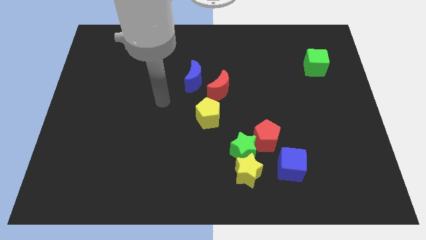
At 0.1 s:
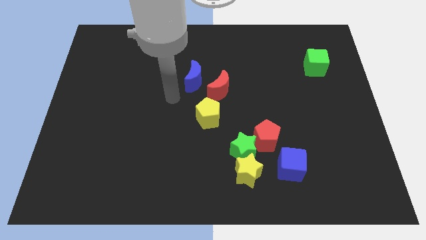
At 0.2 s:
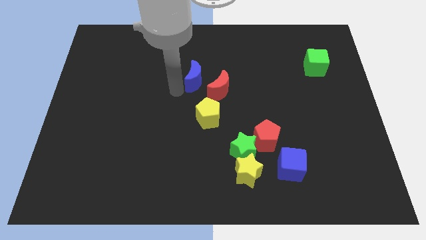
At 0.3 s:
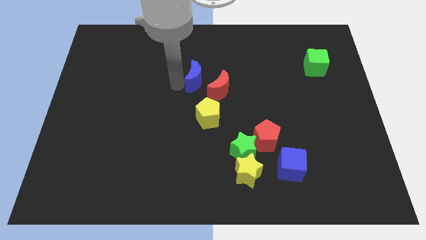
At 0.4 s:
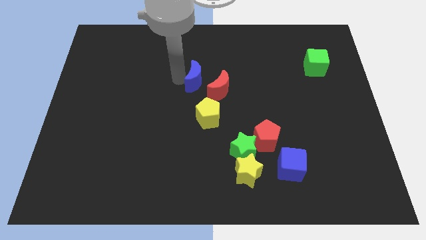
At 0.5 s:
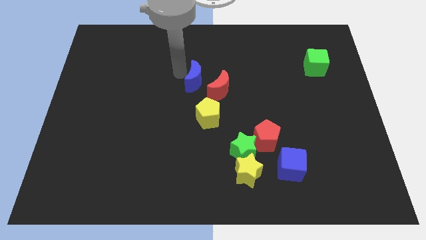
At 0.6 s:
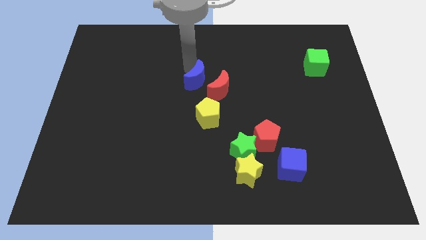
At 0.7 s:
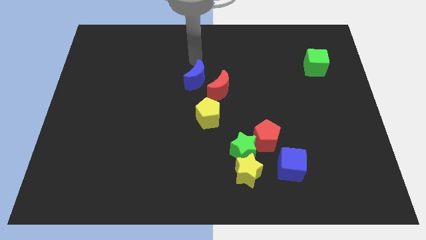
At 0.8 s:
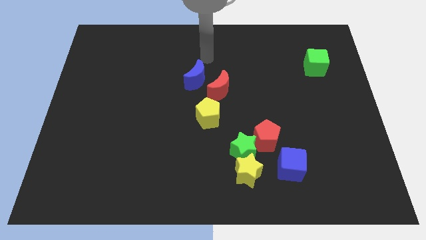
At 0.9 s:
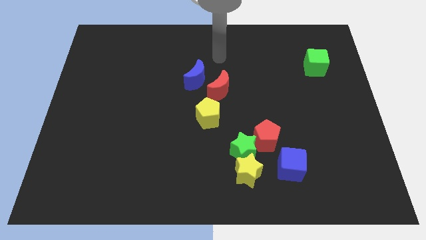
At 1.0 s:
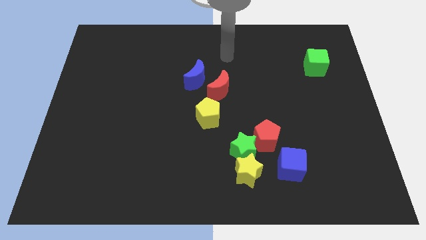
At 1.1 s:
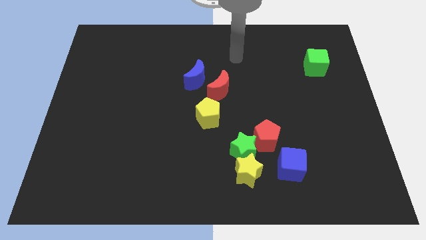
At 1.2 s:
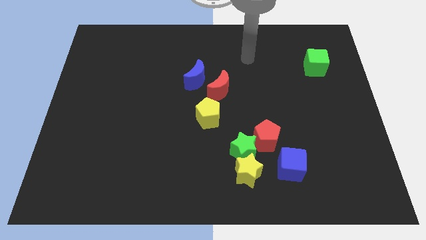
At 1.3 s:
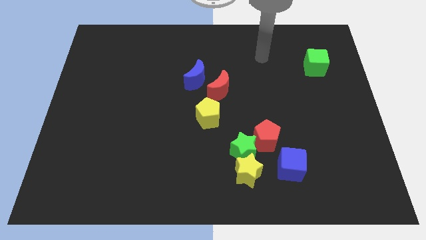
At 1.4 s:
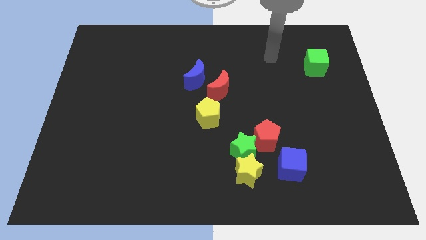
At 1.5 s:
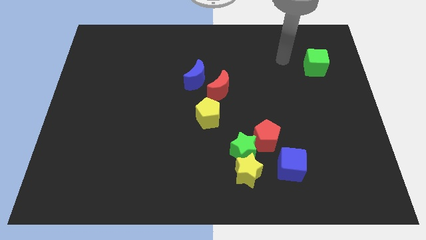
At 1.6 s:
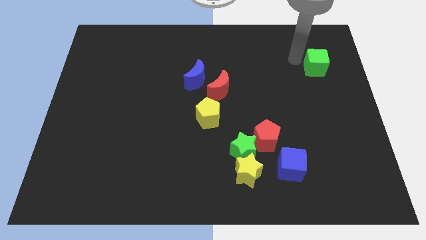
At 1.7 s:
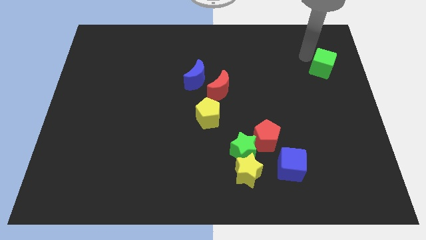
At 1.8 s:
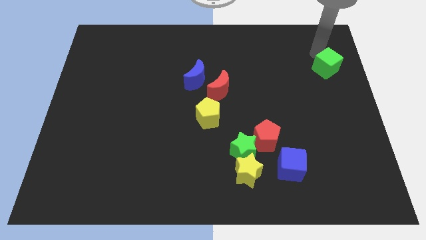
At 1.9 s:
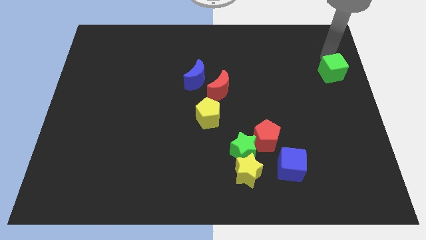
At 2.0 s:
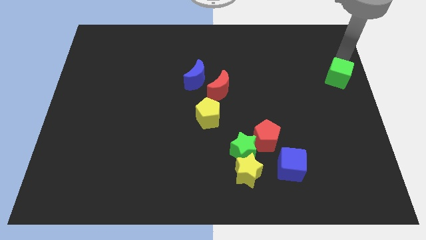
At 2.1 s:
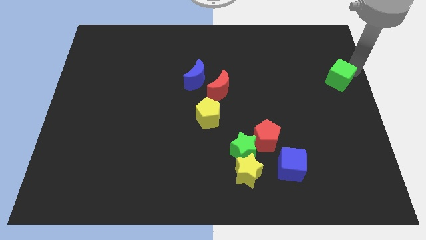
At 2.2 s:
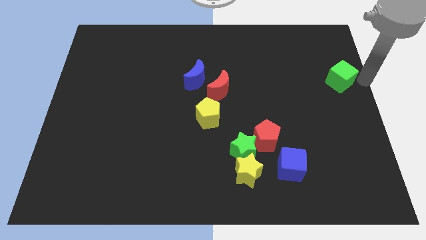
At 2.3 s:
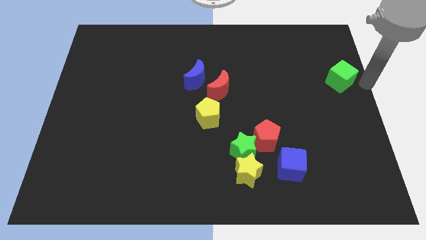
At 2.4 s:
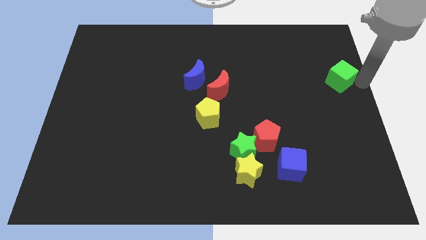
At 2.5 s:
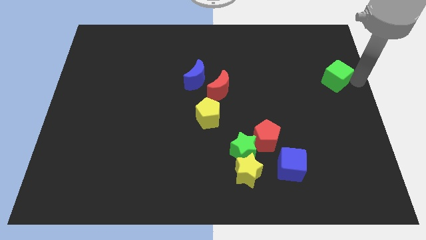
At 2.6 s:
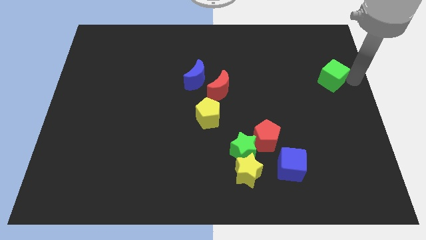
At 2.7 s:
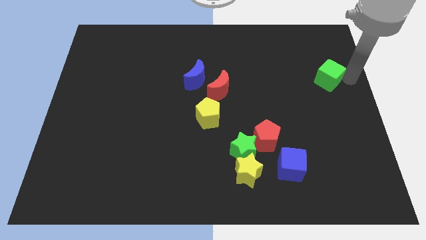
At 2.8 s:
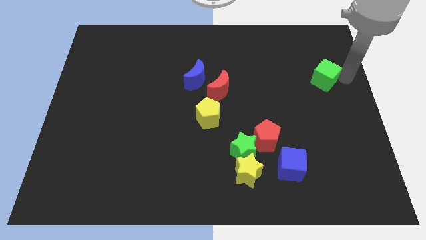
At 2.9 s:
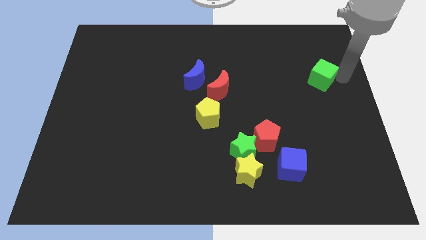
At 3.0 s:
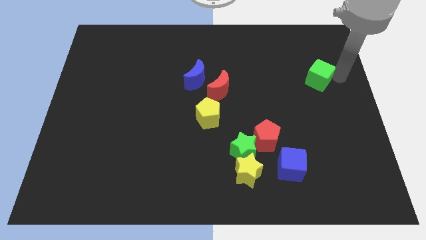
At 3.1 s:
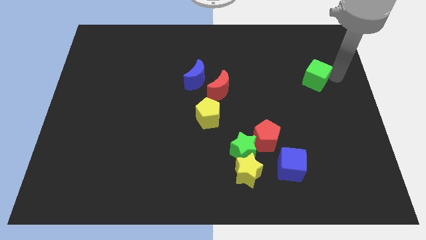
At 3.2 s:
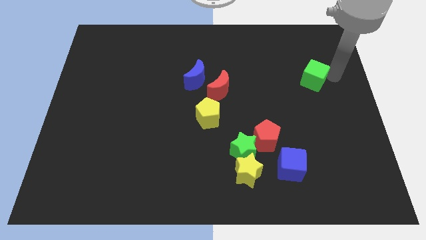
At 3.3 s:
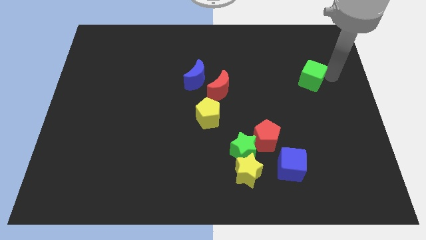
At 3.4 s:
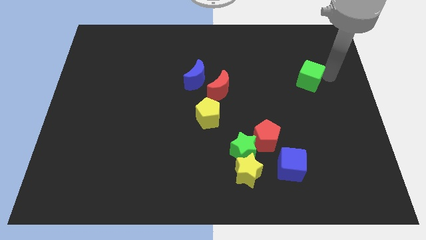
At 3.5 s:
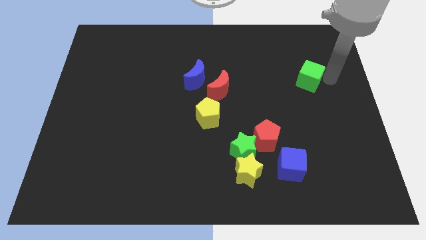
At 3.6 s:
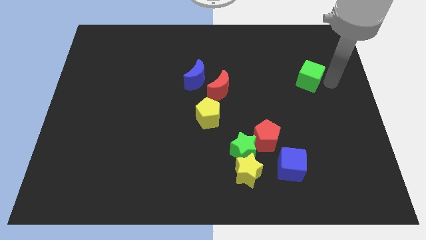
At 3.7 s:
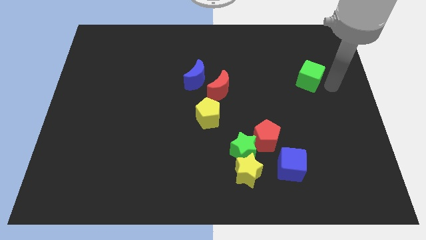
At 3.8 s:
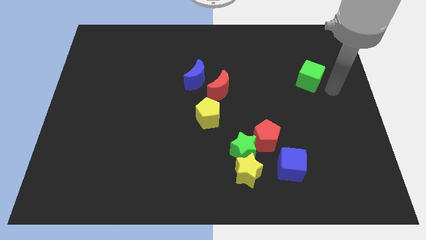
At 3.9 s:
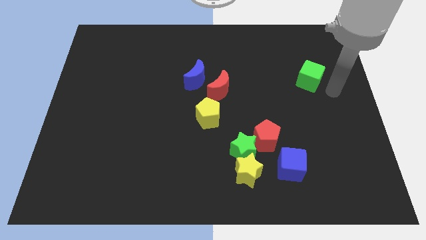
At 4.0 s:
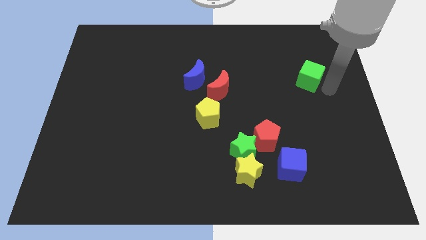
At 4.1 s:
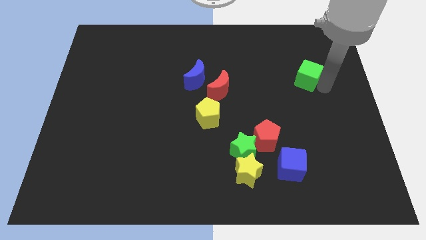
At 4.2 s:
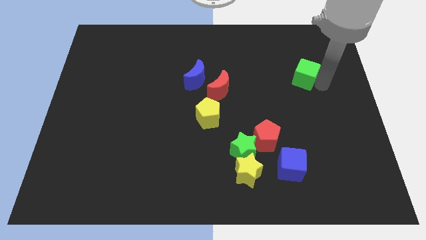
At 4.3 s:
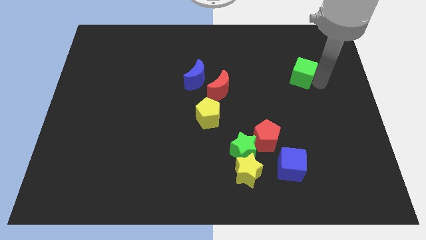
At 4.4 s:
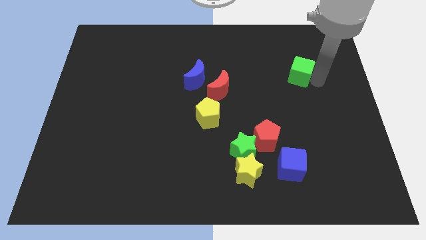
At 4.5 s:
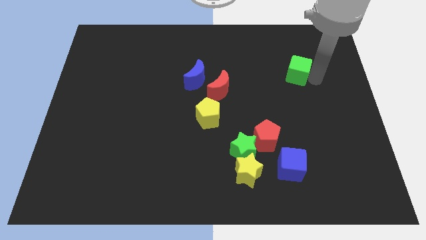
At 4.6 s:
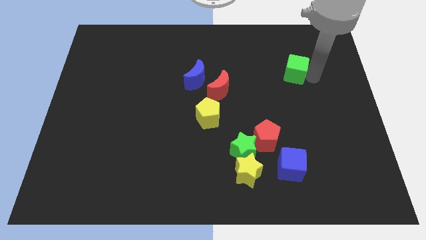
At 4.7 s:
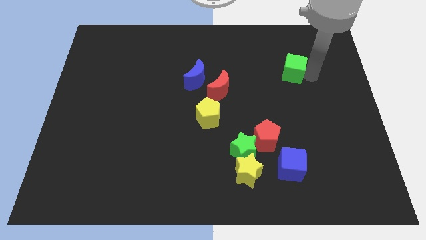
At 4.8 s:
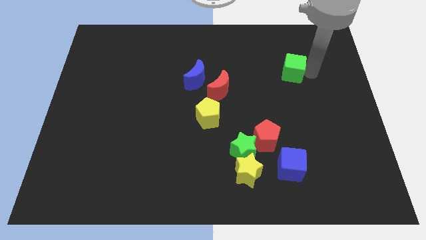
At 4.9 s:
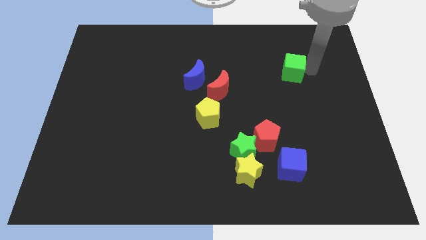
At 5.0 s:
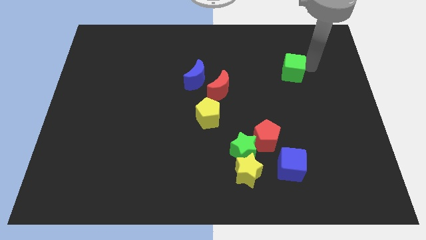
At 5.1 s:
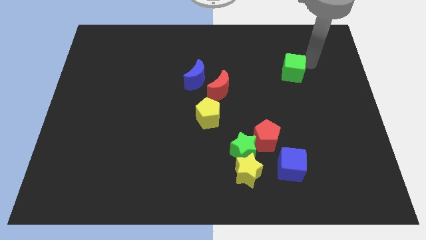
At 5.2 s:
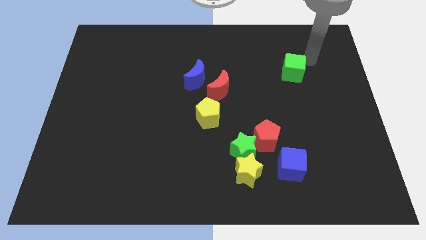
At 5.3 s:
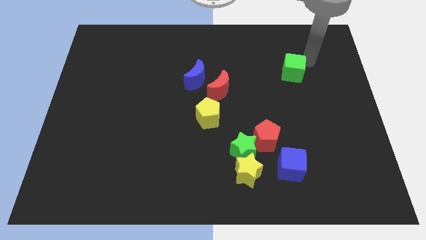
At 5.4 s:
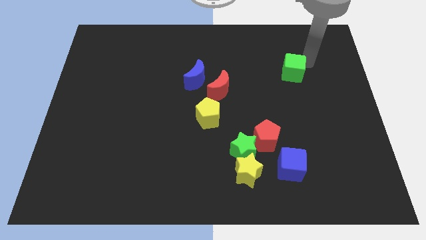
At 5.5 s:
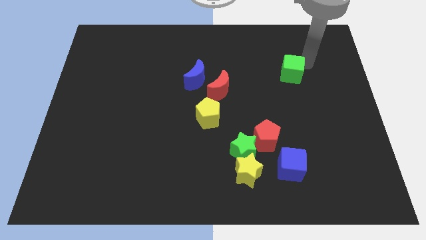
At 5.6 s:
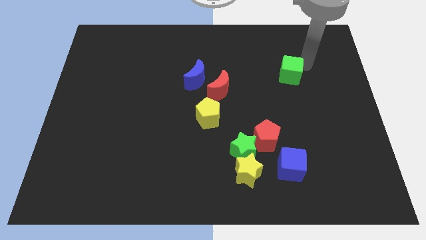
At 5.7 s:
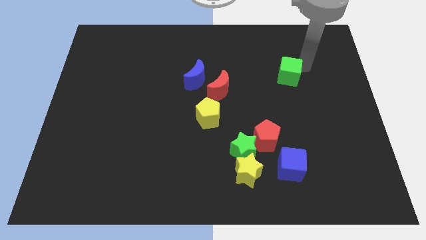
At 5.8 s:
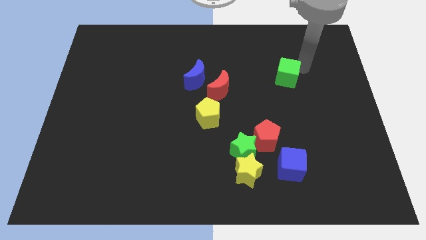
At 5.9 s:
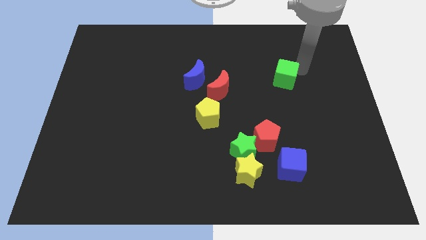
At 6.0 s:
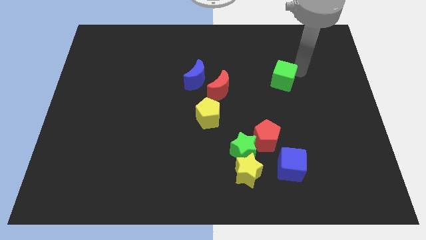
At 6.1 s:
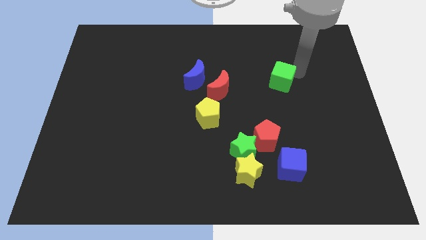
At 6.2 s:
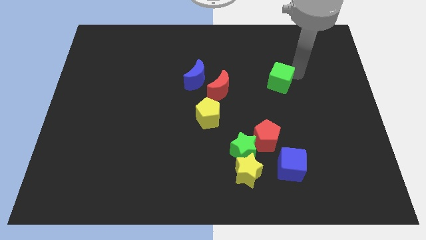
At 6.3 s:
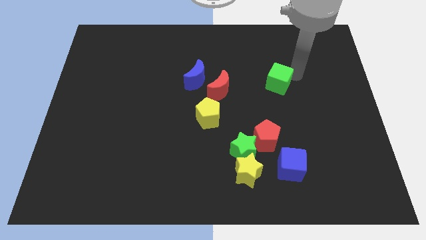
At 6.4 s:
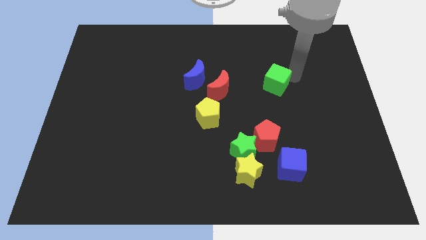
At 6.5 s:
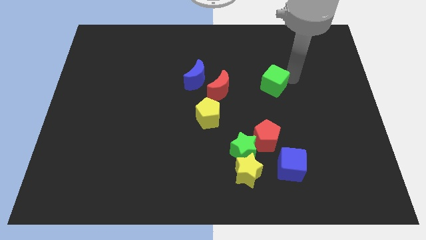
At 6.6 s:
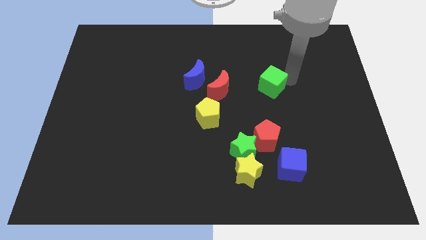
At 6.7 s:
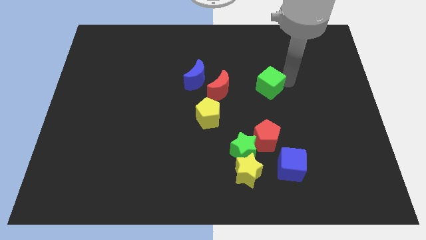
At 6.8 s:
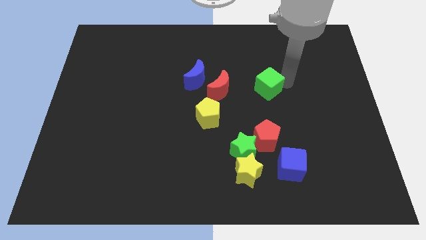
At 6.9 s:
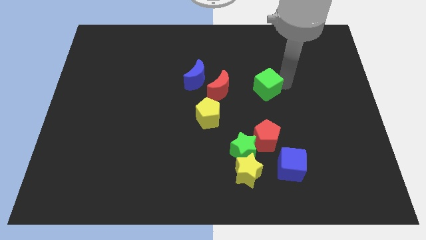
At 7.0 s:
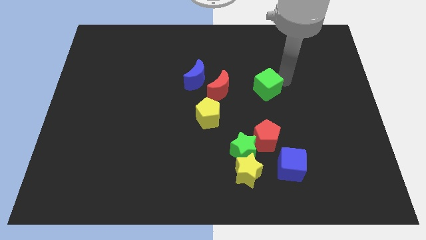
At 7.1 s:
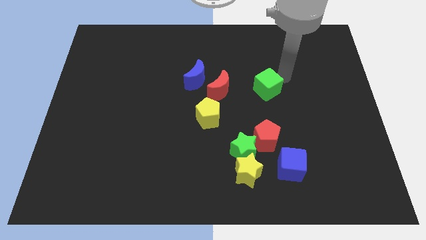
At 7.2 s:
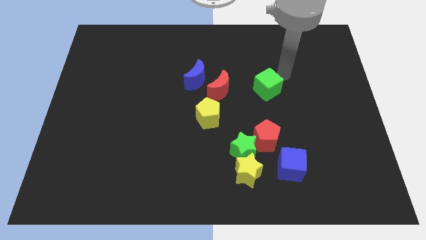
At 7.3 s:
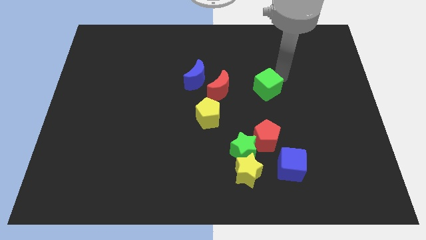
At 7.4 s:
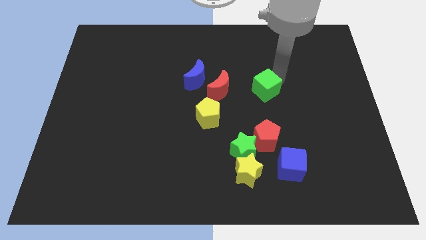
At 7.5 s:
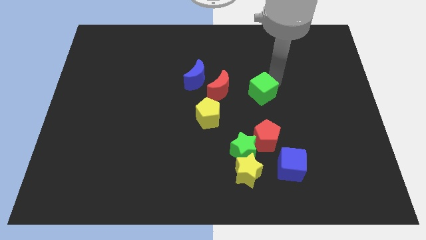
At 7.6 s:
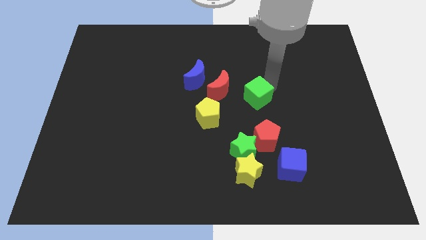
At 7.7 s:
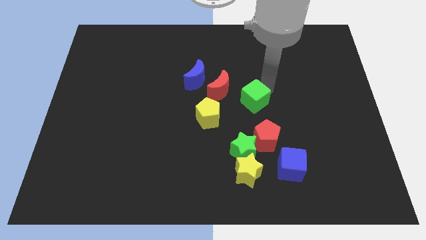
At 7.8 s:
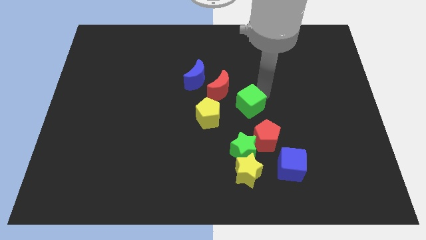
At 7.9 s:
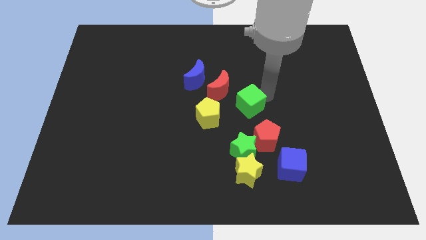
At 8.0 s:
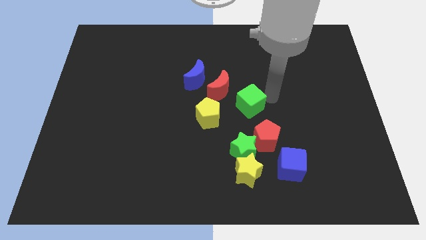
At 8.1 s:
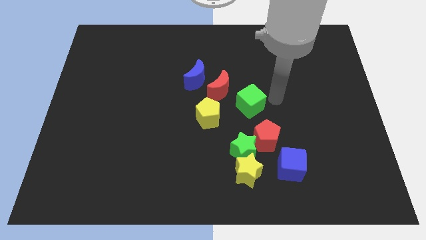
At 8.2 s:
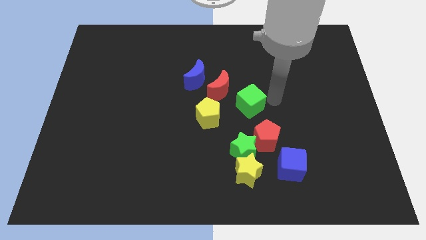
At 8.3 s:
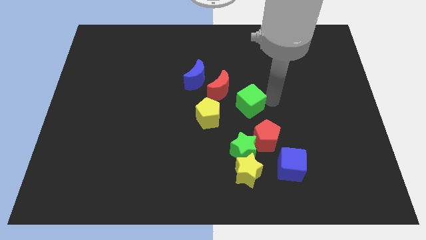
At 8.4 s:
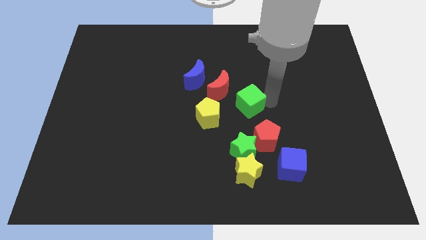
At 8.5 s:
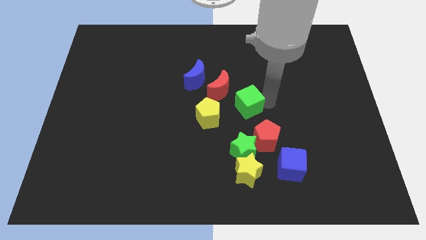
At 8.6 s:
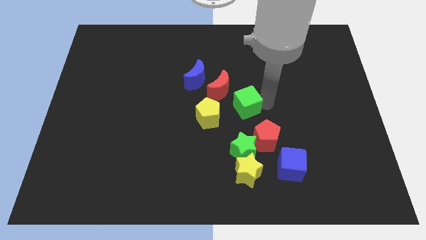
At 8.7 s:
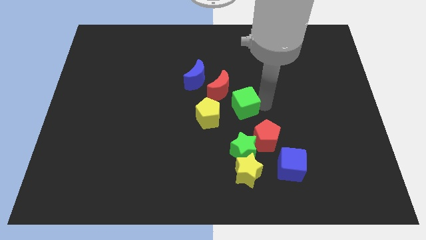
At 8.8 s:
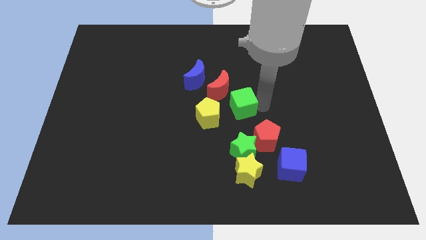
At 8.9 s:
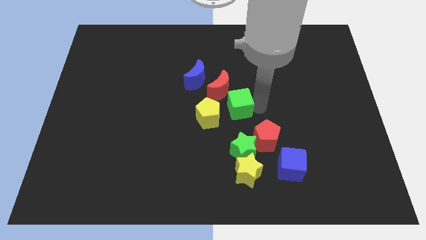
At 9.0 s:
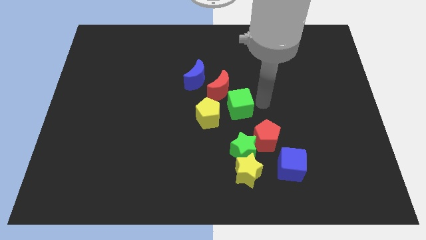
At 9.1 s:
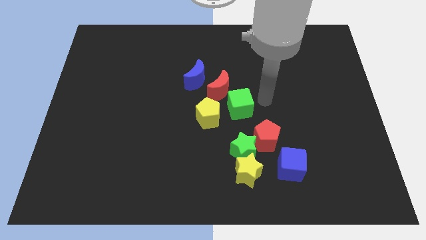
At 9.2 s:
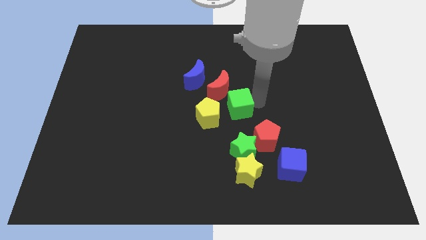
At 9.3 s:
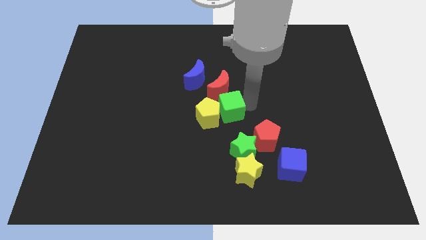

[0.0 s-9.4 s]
move the green cube next to the yellow pentagon
